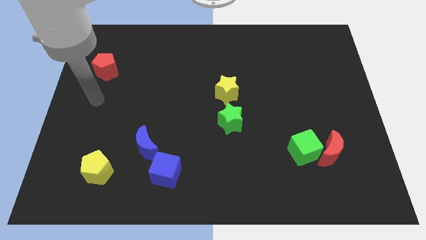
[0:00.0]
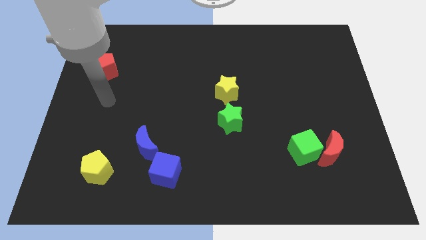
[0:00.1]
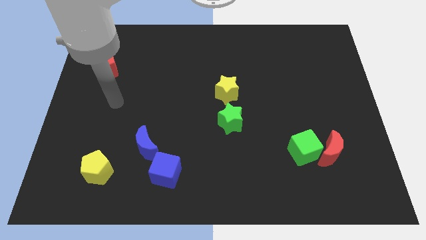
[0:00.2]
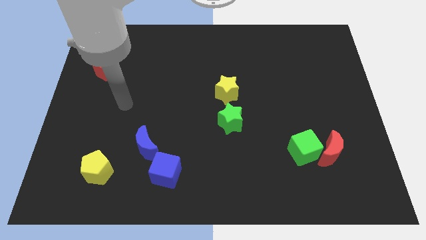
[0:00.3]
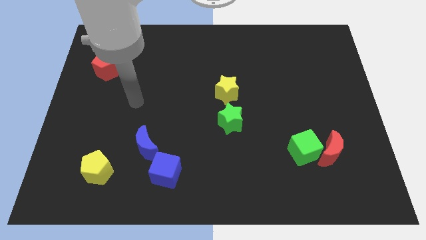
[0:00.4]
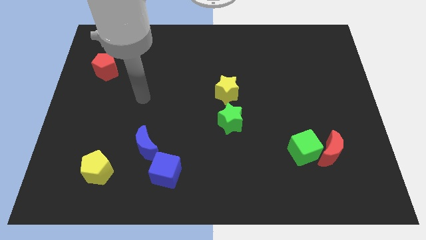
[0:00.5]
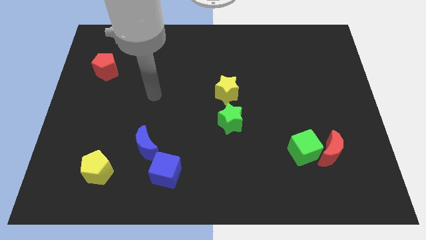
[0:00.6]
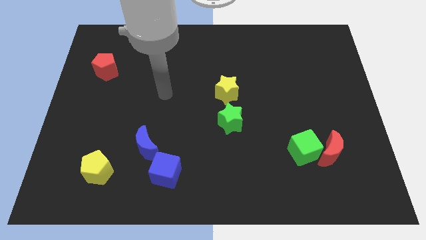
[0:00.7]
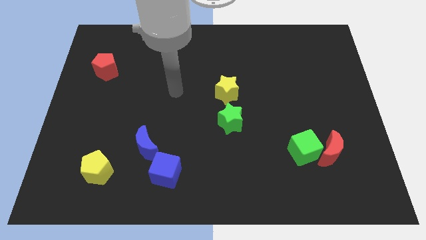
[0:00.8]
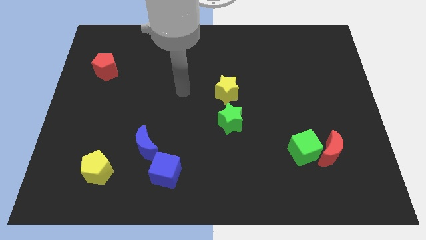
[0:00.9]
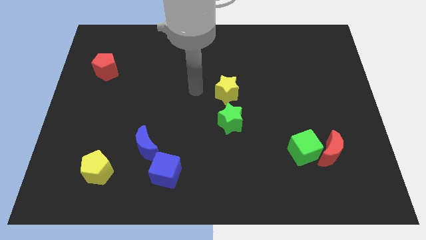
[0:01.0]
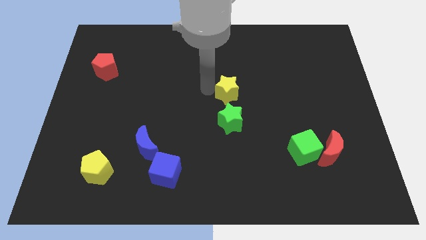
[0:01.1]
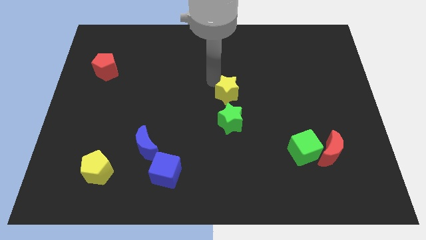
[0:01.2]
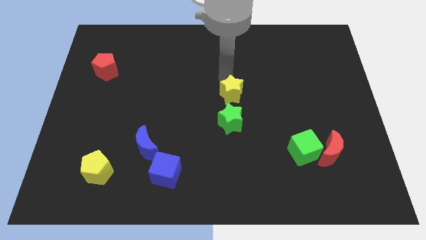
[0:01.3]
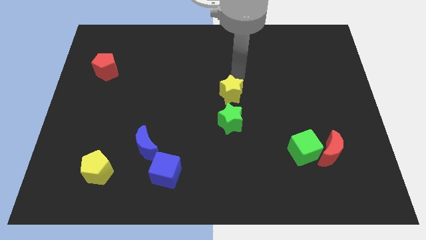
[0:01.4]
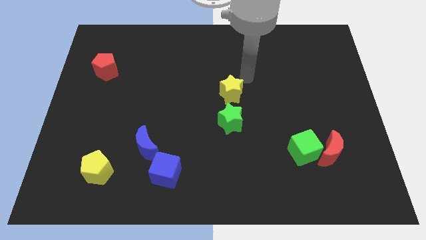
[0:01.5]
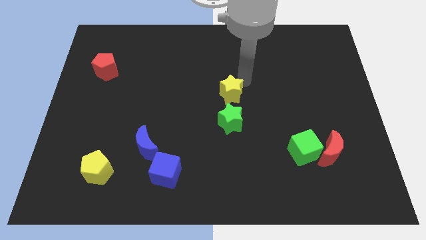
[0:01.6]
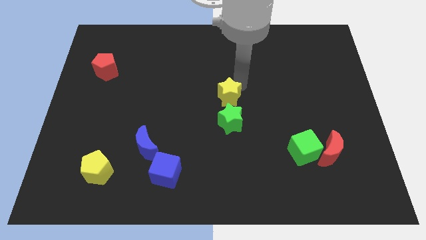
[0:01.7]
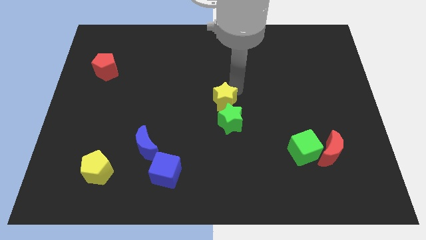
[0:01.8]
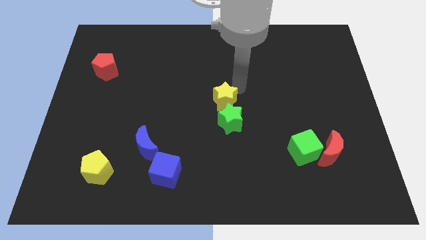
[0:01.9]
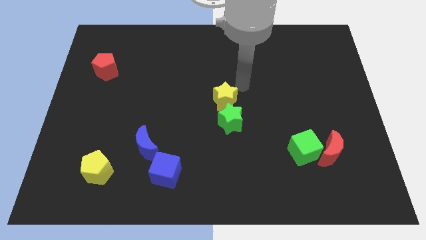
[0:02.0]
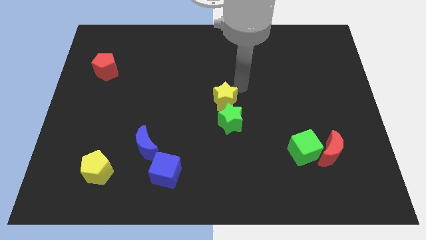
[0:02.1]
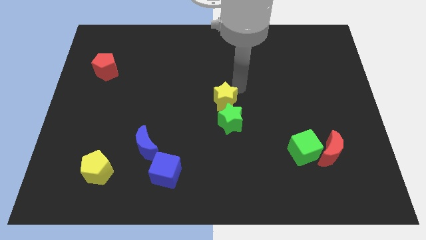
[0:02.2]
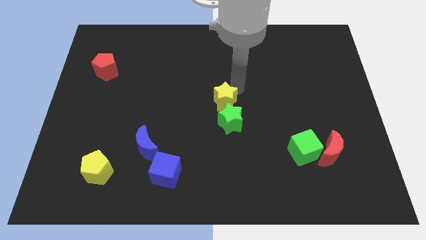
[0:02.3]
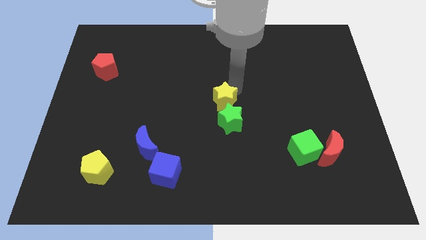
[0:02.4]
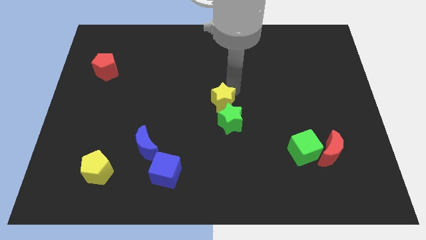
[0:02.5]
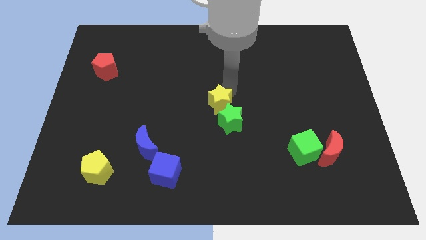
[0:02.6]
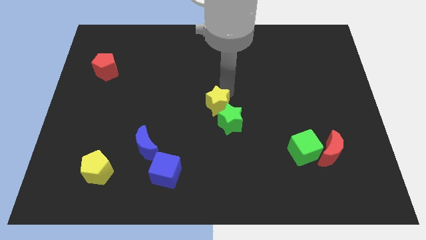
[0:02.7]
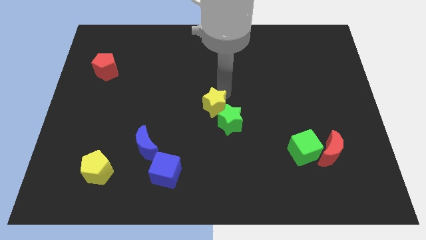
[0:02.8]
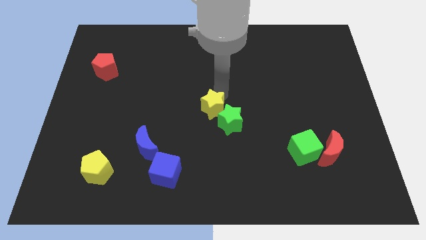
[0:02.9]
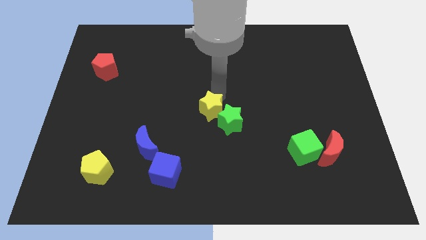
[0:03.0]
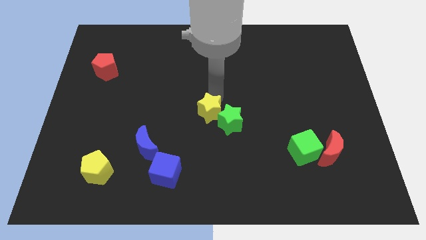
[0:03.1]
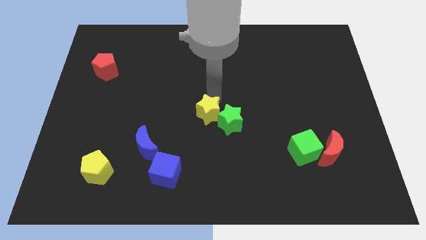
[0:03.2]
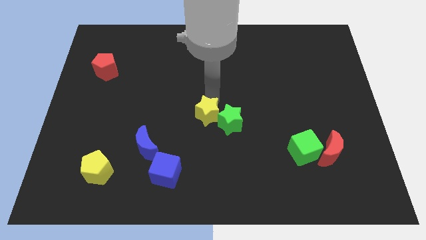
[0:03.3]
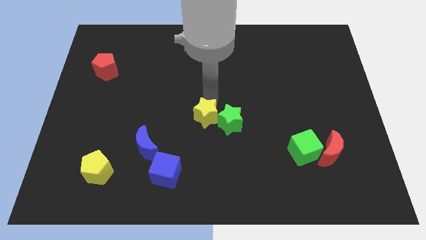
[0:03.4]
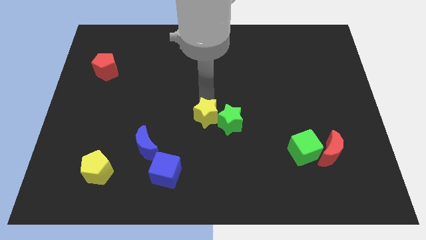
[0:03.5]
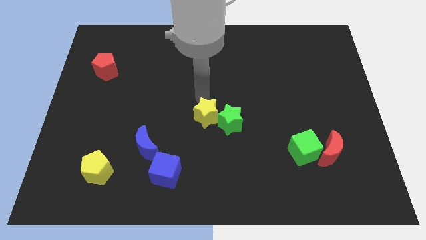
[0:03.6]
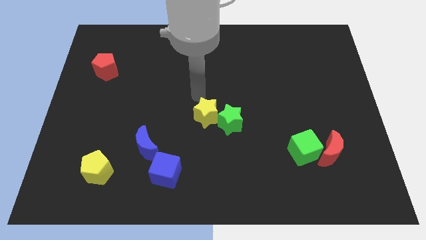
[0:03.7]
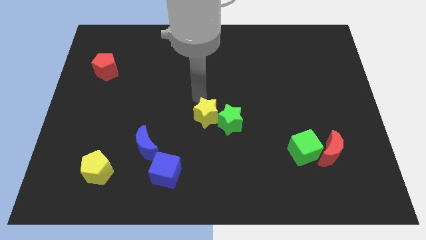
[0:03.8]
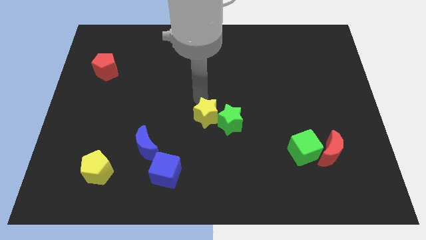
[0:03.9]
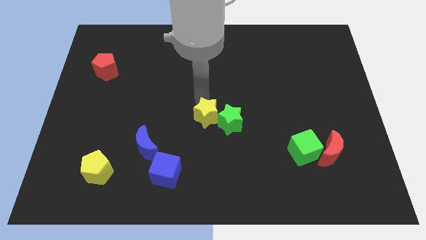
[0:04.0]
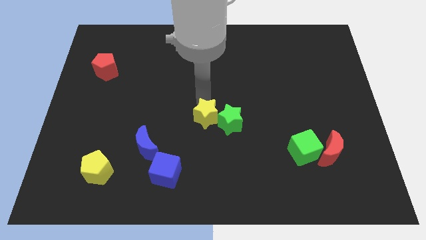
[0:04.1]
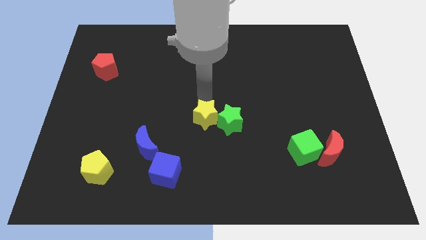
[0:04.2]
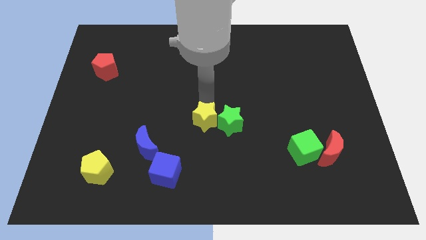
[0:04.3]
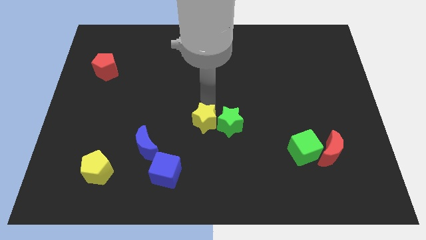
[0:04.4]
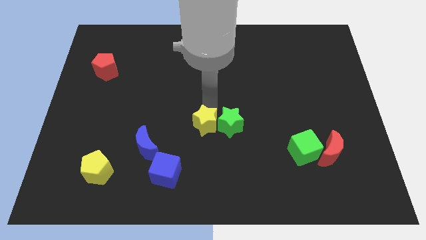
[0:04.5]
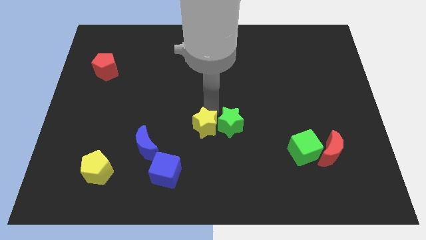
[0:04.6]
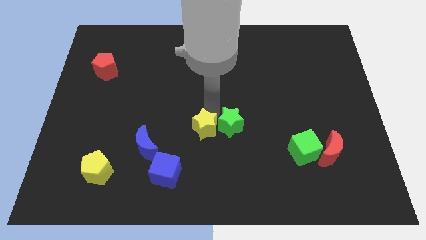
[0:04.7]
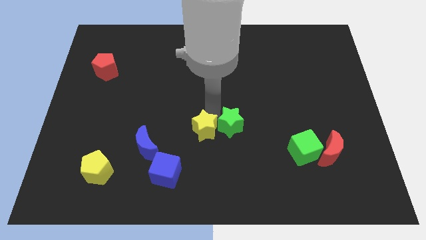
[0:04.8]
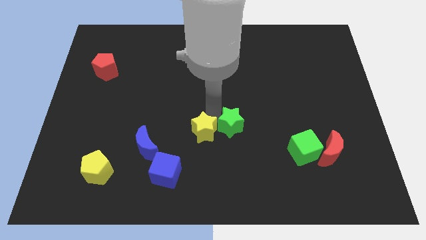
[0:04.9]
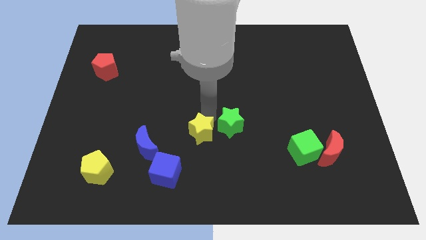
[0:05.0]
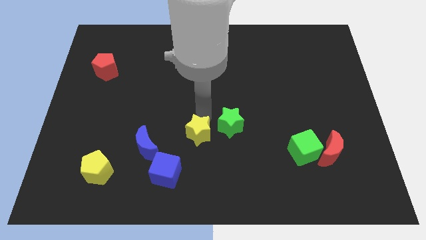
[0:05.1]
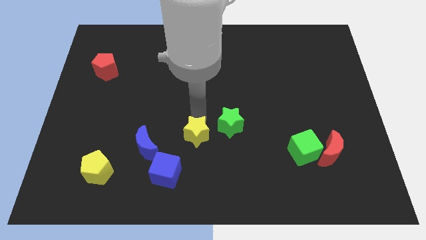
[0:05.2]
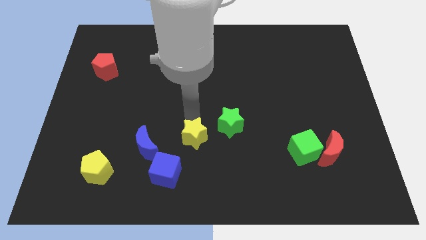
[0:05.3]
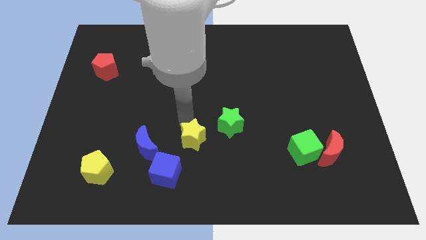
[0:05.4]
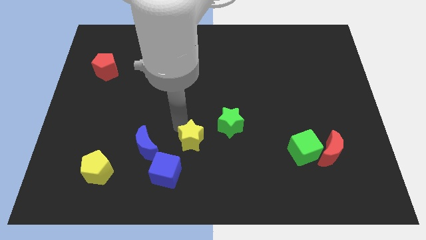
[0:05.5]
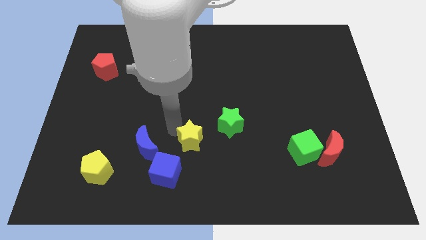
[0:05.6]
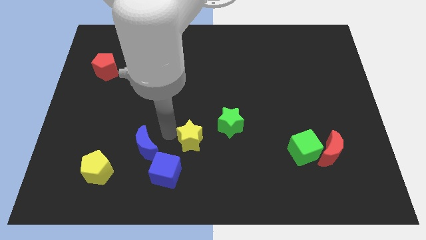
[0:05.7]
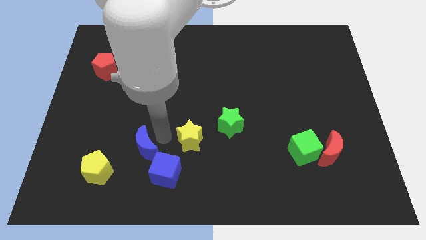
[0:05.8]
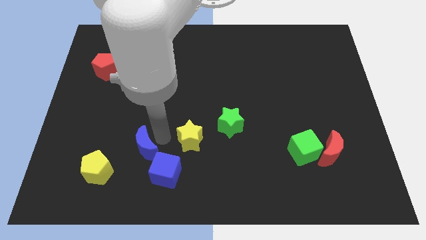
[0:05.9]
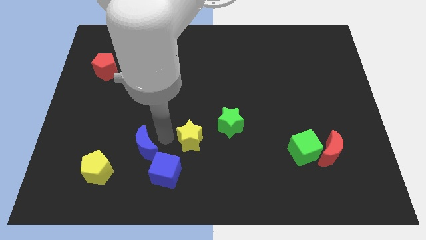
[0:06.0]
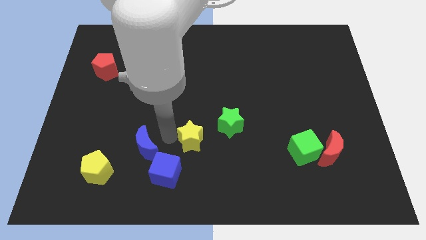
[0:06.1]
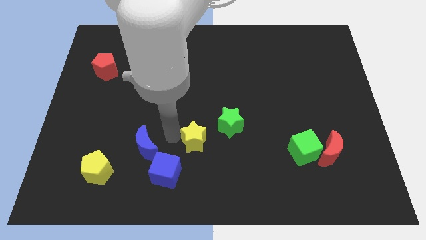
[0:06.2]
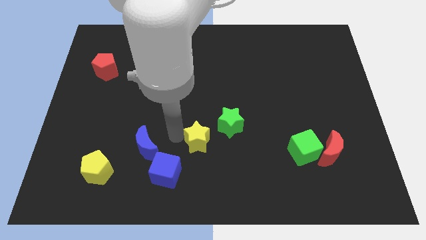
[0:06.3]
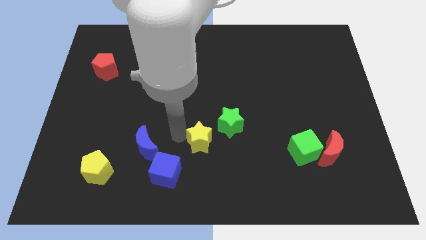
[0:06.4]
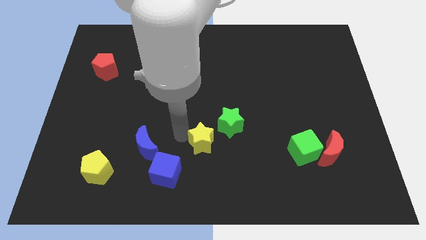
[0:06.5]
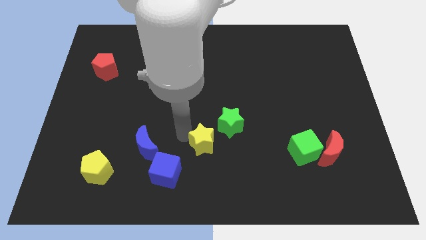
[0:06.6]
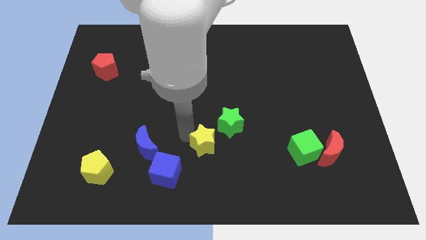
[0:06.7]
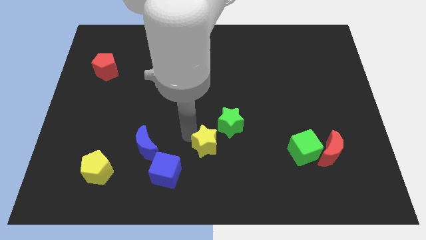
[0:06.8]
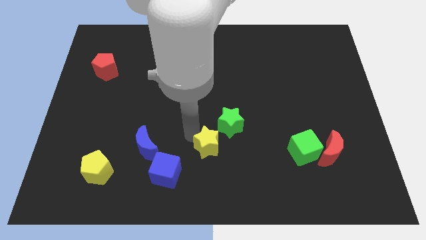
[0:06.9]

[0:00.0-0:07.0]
push the yellow star to the bottom side of the green star

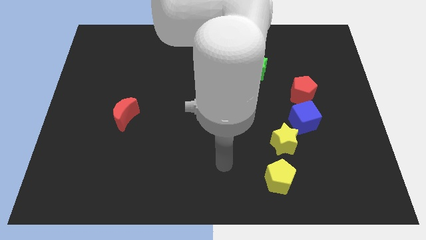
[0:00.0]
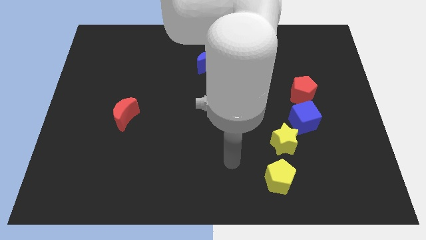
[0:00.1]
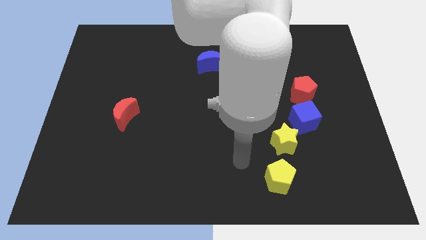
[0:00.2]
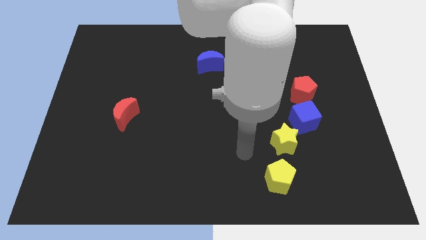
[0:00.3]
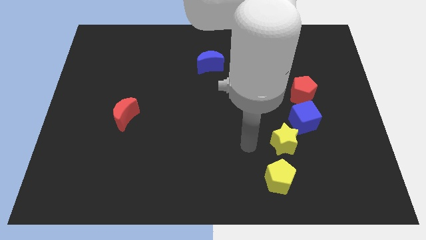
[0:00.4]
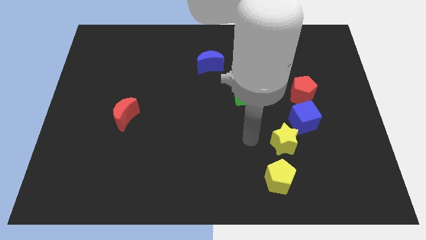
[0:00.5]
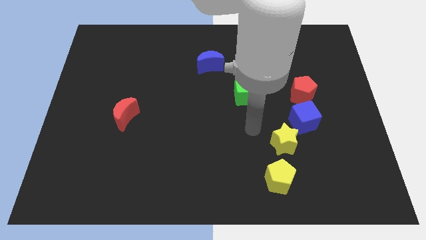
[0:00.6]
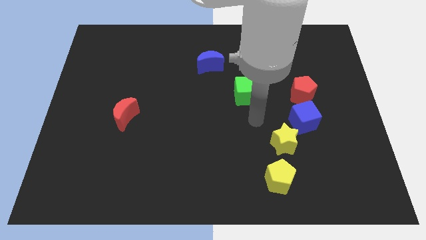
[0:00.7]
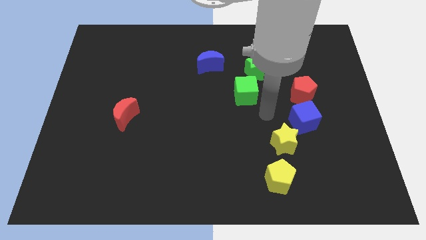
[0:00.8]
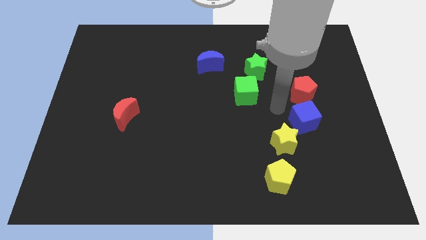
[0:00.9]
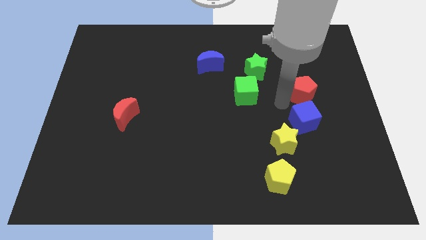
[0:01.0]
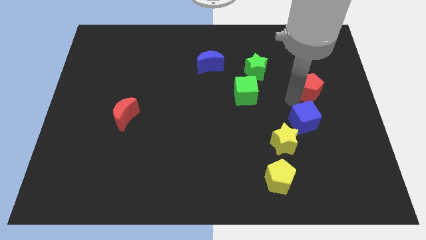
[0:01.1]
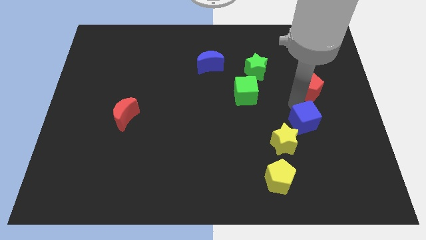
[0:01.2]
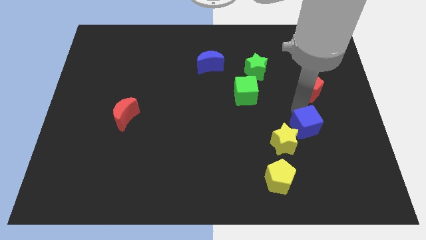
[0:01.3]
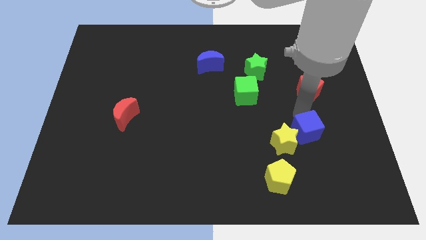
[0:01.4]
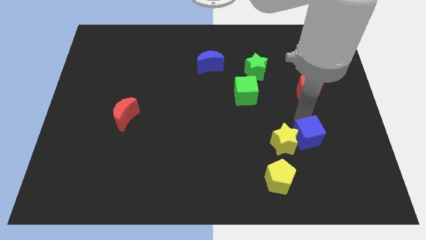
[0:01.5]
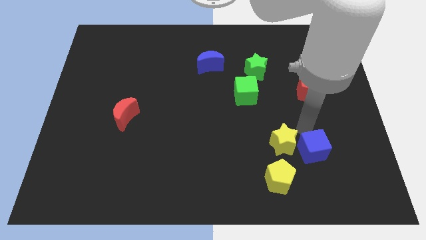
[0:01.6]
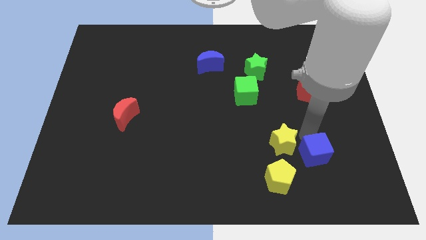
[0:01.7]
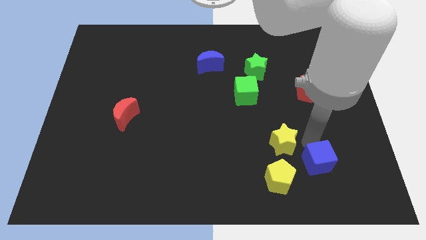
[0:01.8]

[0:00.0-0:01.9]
push the blue cube to the right of the yellow pentagon
